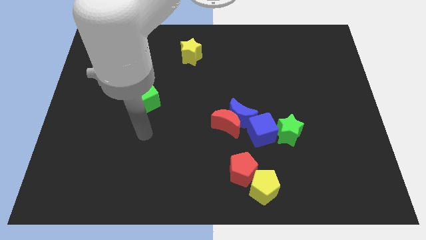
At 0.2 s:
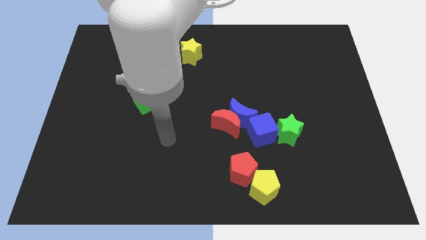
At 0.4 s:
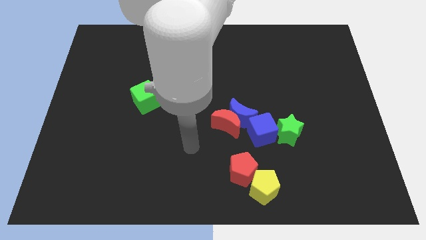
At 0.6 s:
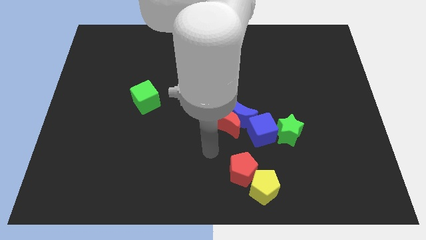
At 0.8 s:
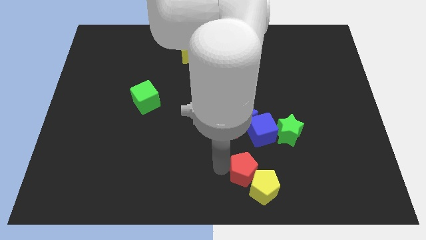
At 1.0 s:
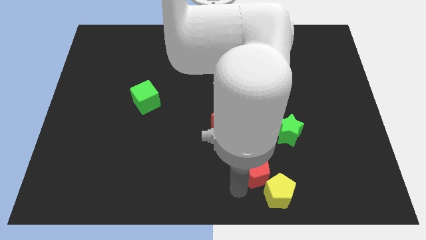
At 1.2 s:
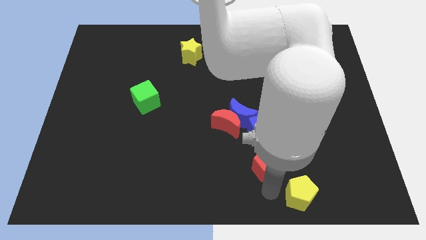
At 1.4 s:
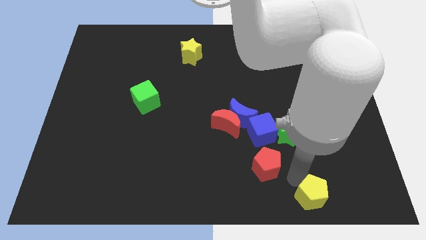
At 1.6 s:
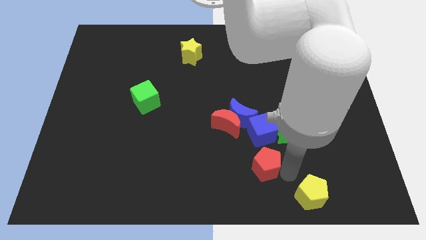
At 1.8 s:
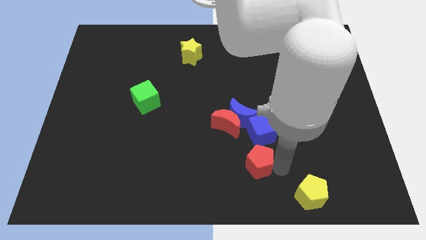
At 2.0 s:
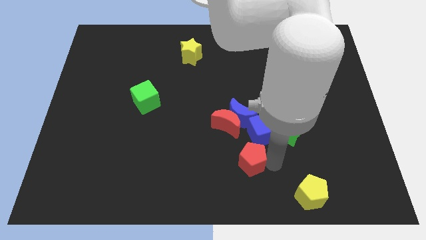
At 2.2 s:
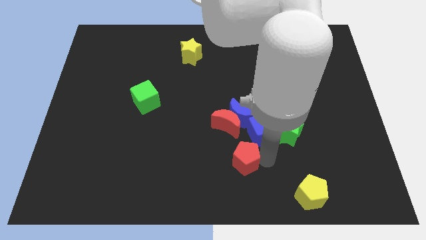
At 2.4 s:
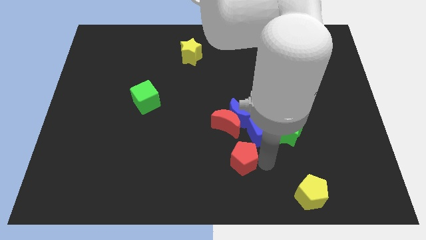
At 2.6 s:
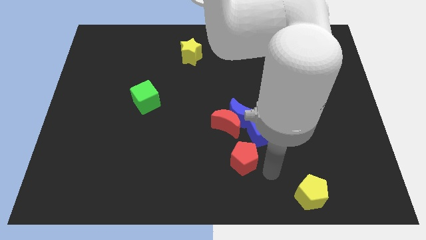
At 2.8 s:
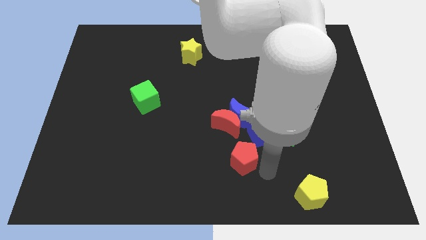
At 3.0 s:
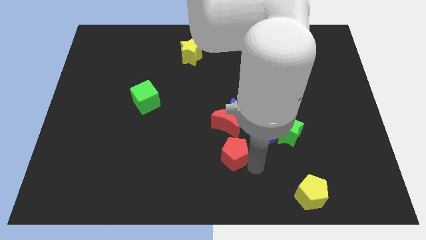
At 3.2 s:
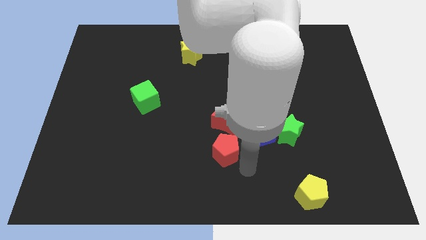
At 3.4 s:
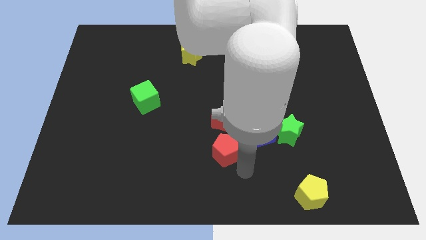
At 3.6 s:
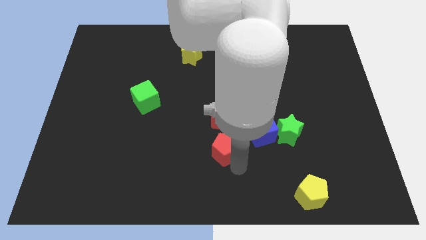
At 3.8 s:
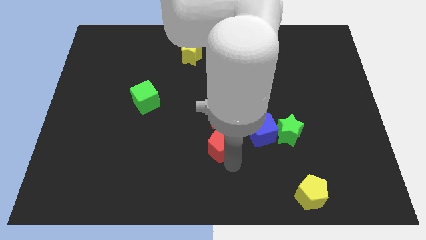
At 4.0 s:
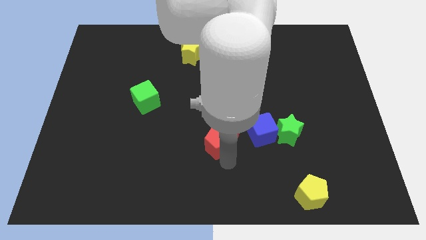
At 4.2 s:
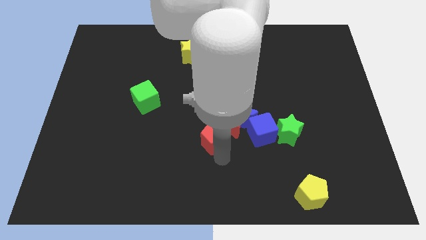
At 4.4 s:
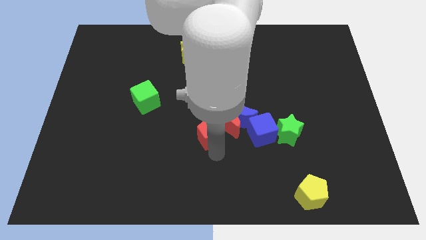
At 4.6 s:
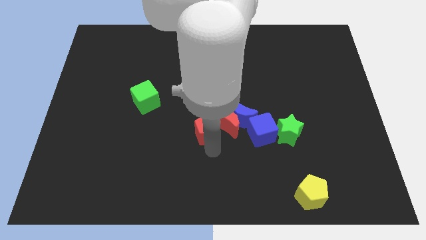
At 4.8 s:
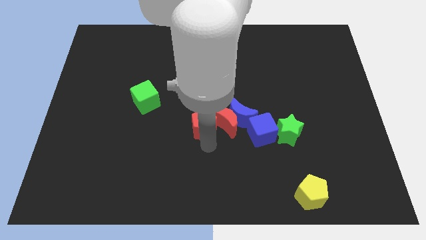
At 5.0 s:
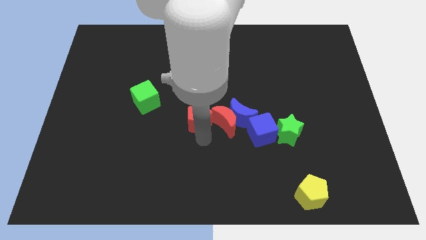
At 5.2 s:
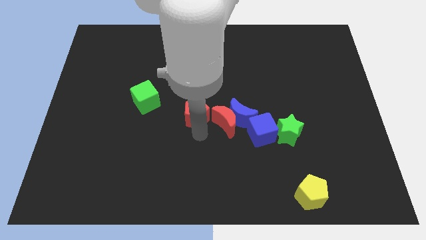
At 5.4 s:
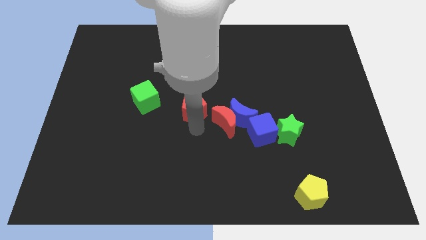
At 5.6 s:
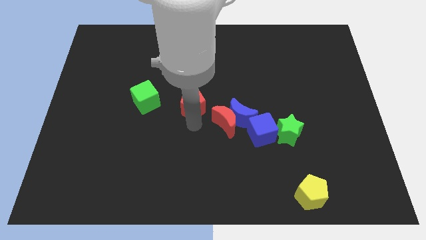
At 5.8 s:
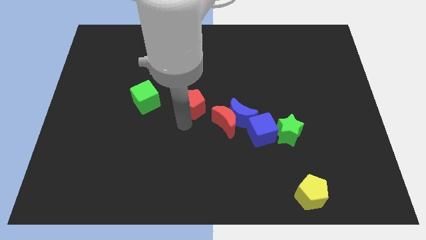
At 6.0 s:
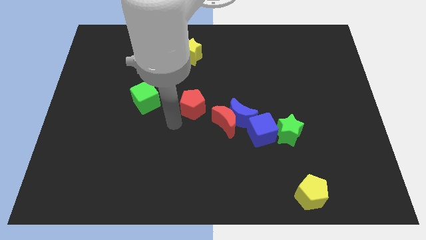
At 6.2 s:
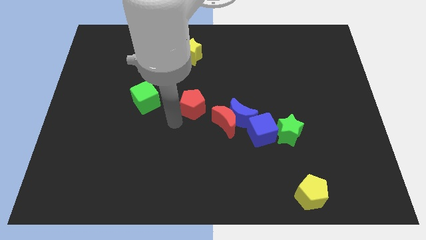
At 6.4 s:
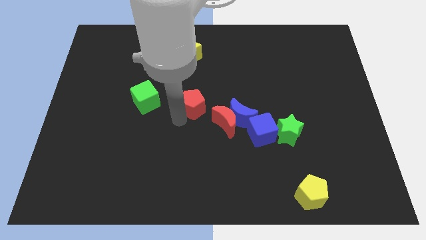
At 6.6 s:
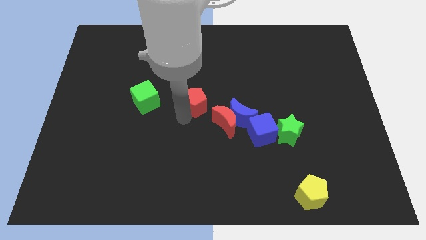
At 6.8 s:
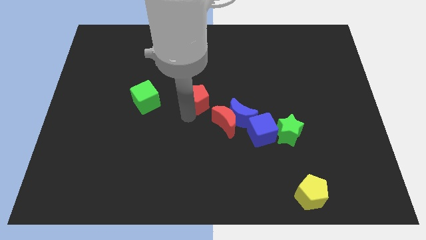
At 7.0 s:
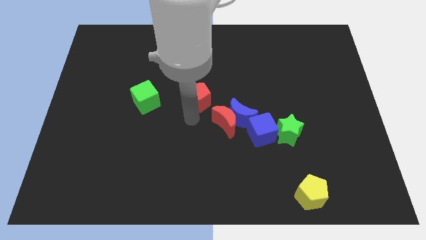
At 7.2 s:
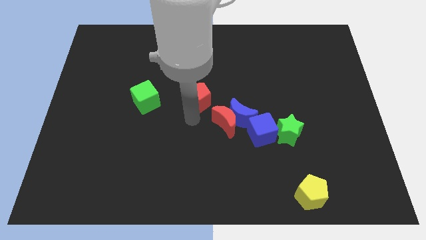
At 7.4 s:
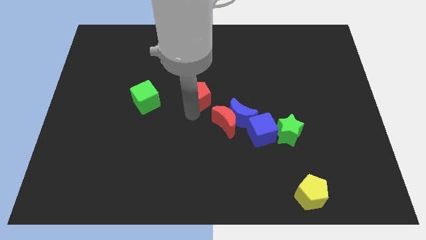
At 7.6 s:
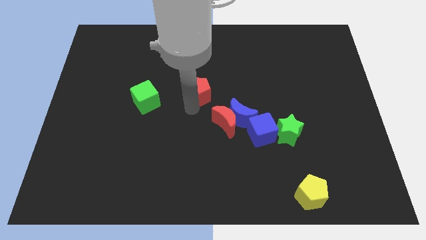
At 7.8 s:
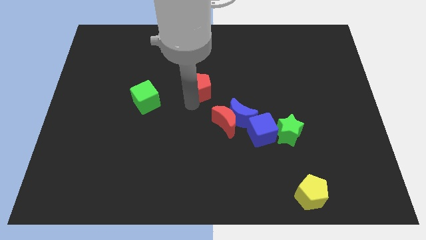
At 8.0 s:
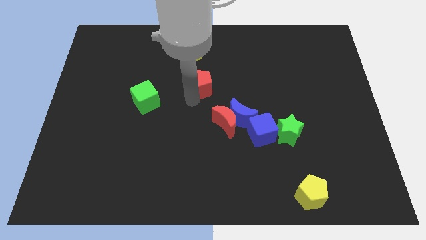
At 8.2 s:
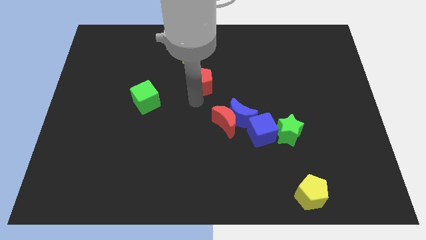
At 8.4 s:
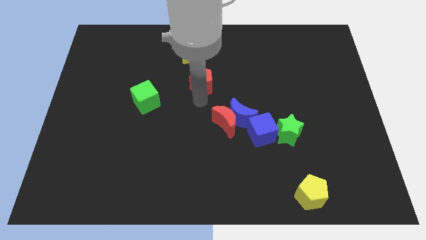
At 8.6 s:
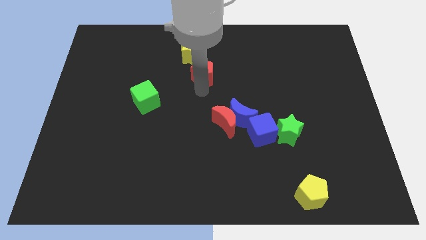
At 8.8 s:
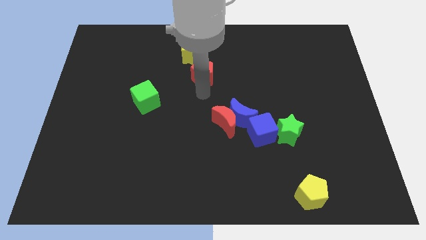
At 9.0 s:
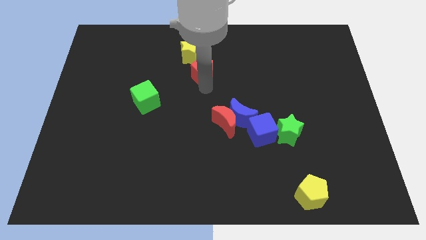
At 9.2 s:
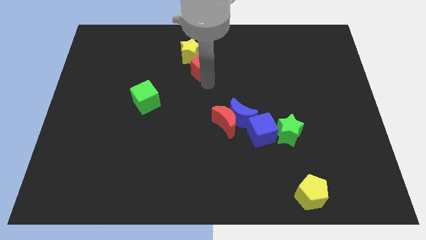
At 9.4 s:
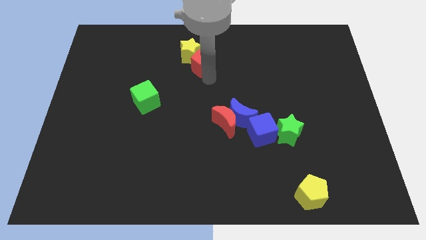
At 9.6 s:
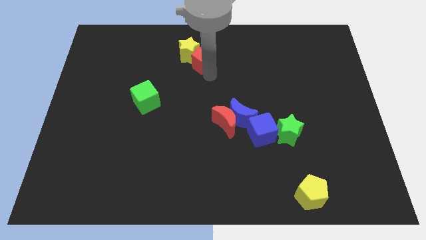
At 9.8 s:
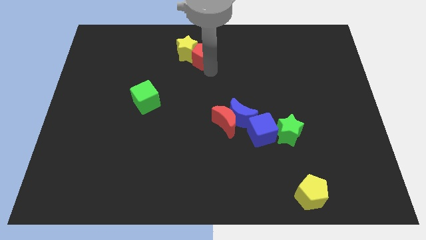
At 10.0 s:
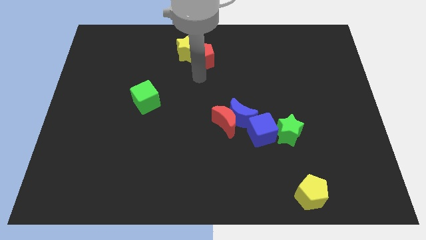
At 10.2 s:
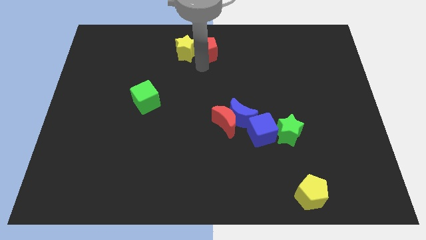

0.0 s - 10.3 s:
slide the red pentagon to the towards your base

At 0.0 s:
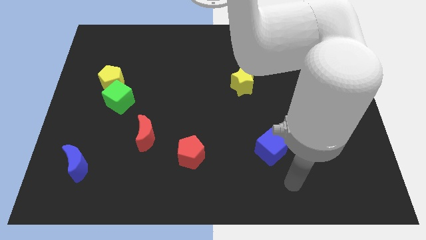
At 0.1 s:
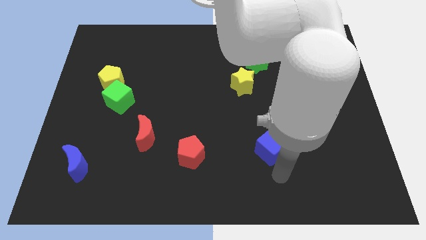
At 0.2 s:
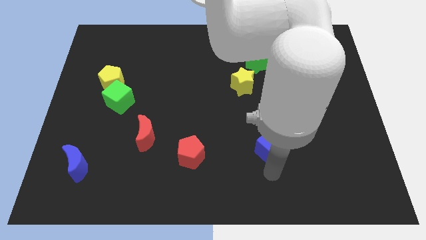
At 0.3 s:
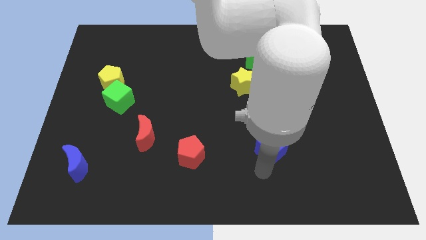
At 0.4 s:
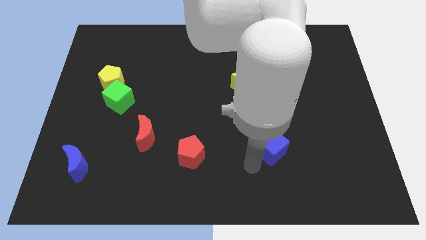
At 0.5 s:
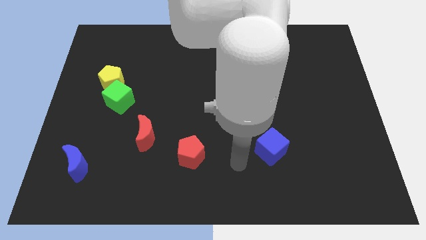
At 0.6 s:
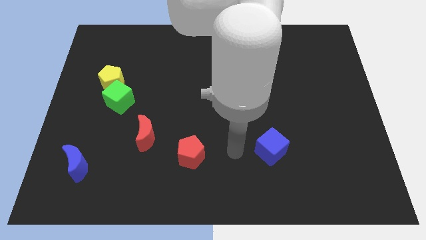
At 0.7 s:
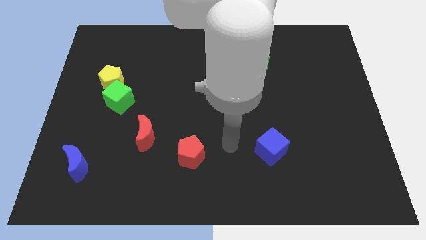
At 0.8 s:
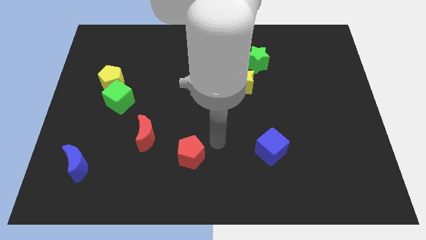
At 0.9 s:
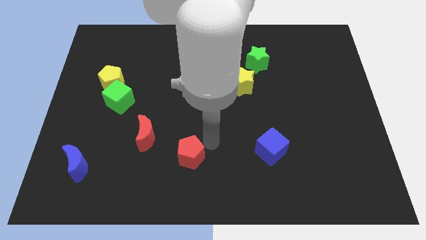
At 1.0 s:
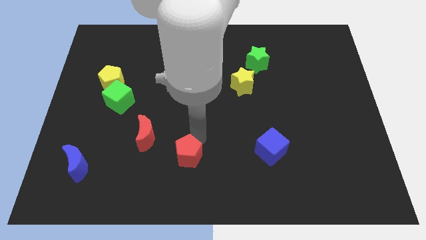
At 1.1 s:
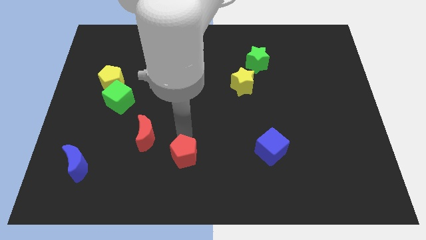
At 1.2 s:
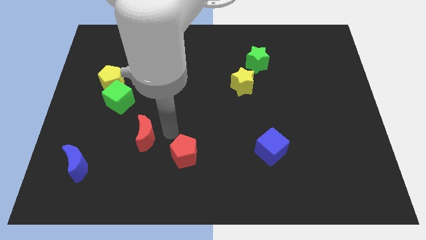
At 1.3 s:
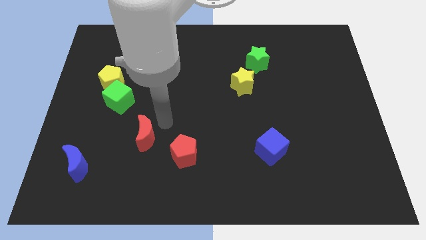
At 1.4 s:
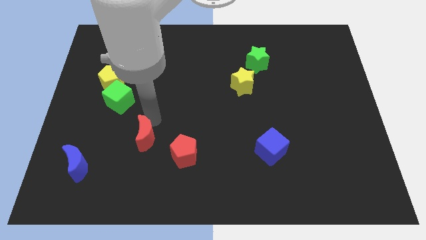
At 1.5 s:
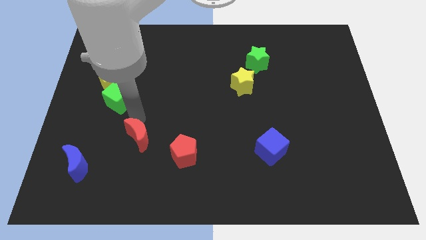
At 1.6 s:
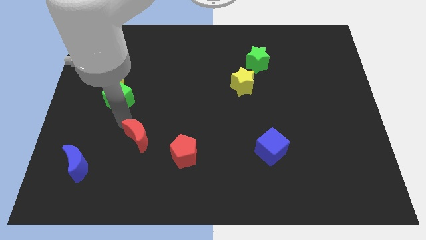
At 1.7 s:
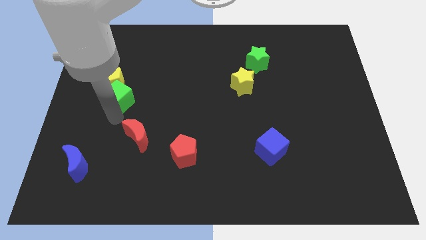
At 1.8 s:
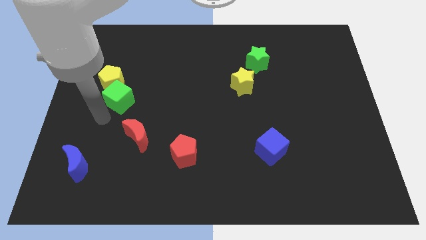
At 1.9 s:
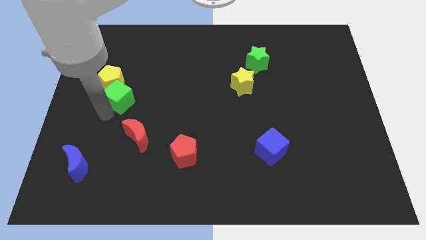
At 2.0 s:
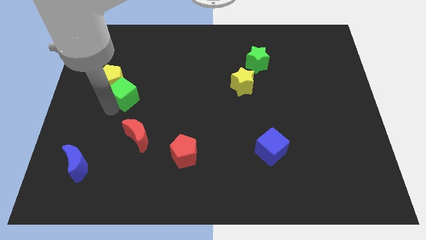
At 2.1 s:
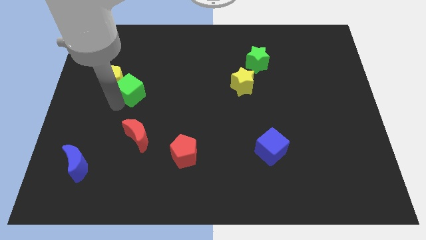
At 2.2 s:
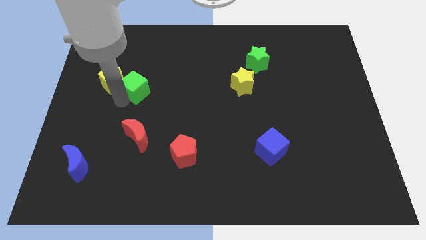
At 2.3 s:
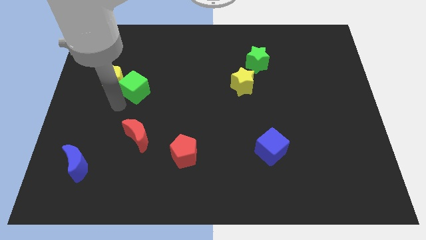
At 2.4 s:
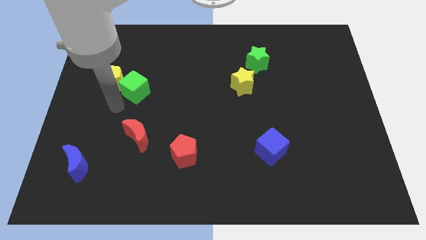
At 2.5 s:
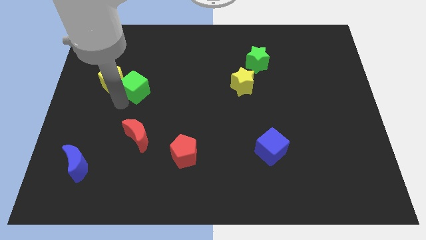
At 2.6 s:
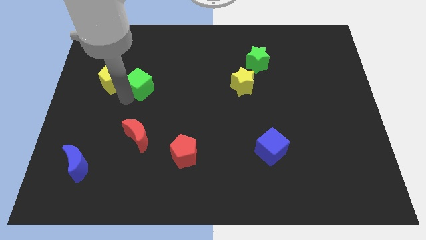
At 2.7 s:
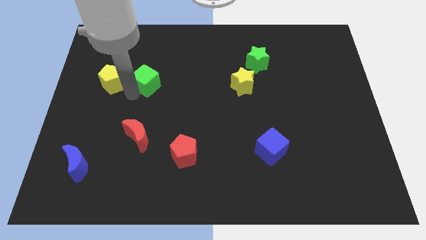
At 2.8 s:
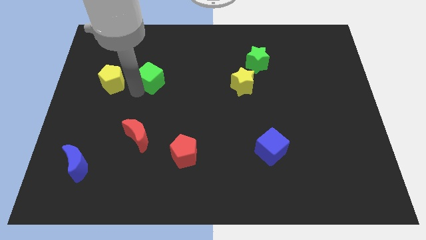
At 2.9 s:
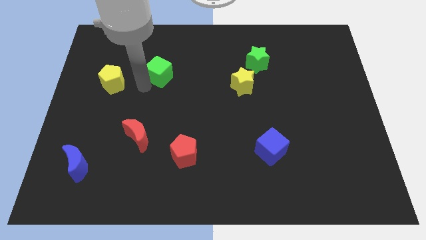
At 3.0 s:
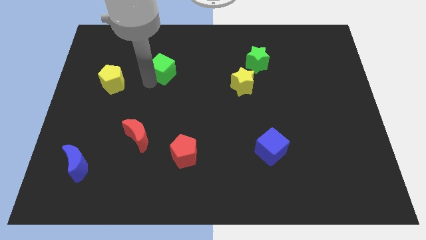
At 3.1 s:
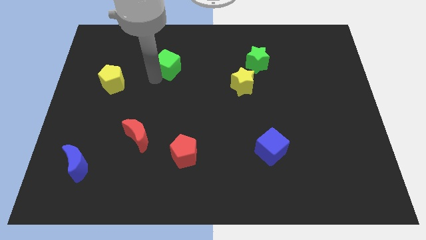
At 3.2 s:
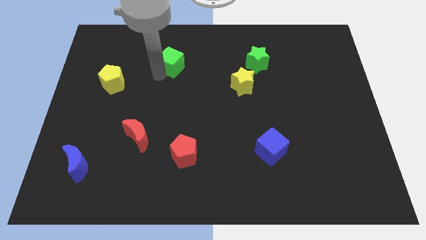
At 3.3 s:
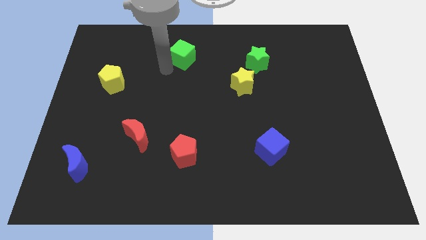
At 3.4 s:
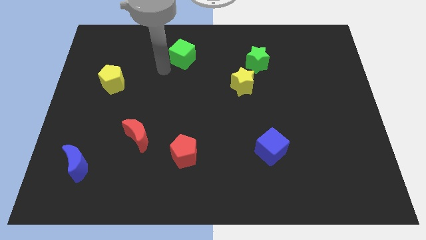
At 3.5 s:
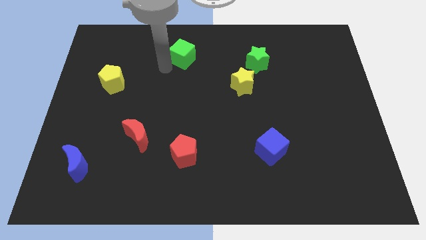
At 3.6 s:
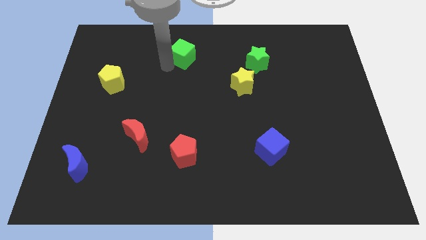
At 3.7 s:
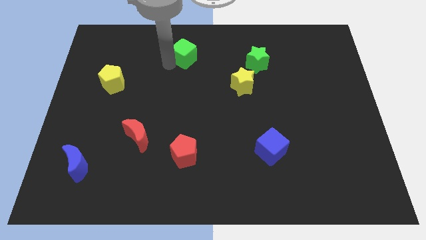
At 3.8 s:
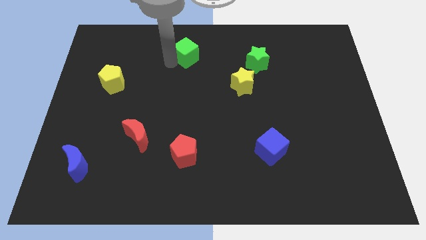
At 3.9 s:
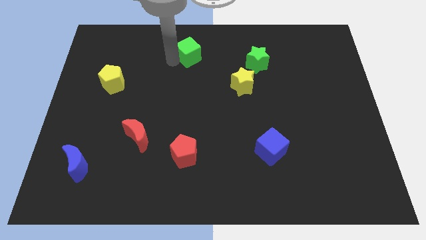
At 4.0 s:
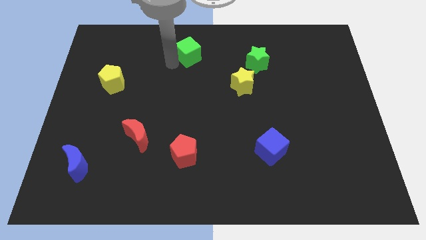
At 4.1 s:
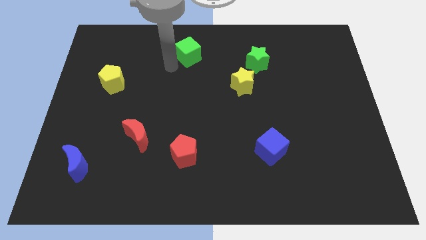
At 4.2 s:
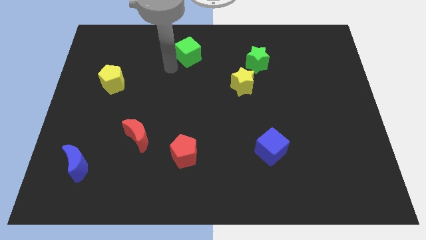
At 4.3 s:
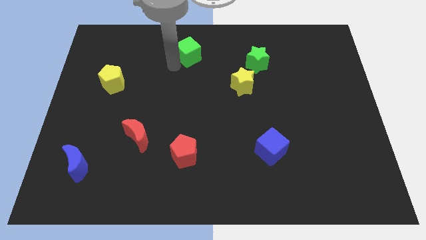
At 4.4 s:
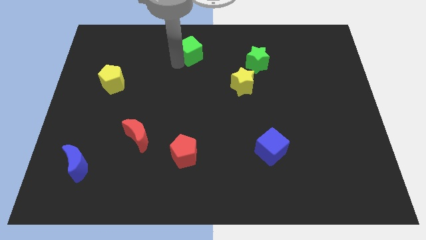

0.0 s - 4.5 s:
push the green cube to the top side
